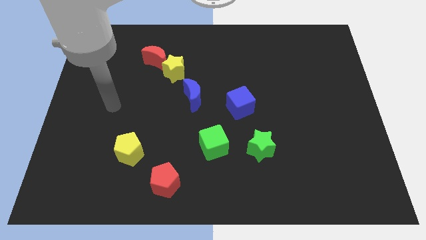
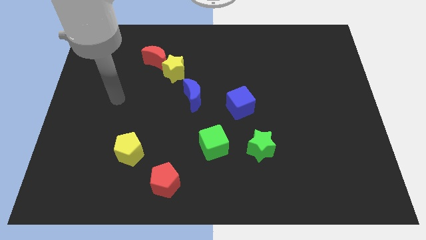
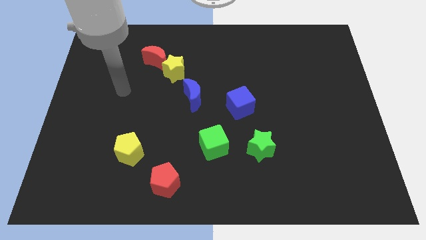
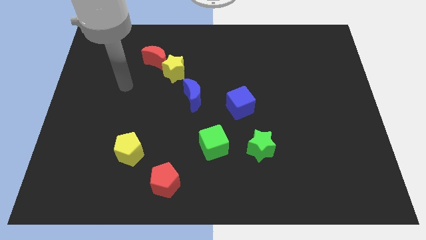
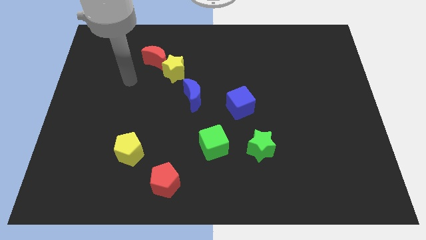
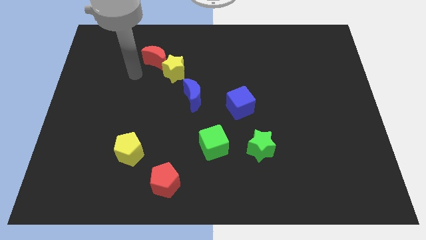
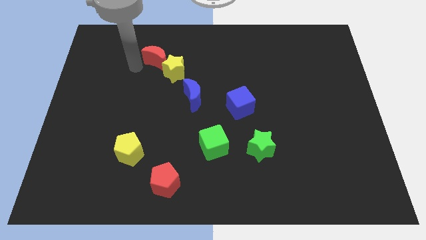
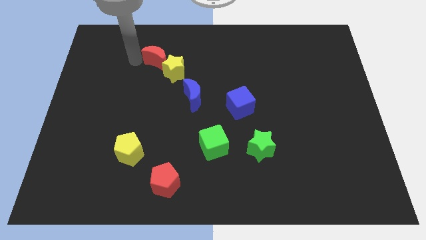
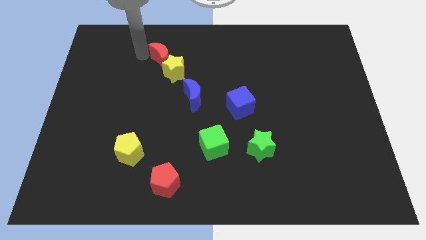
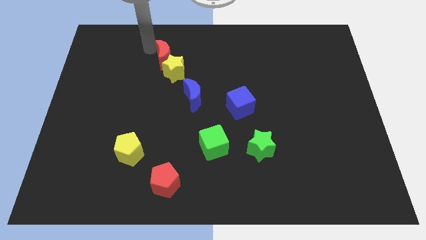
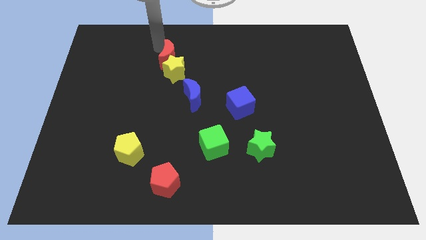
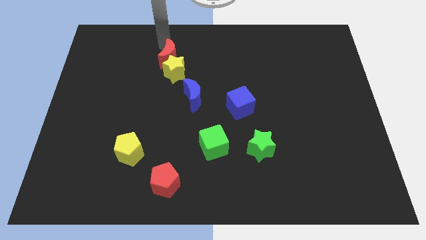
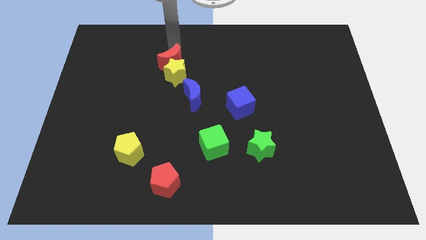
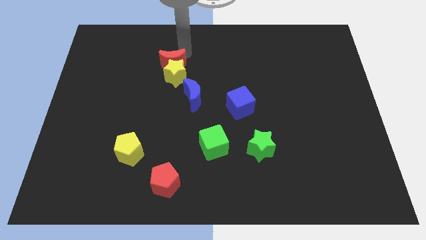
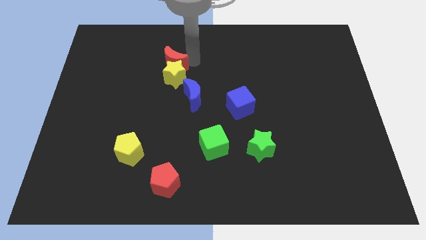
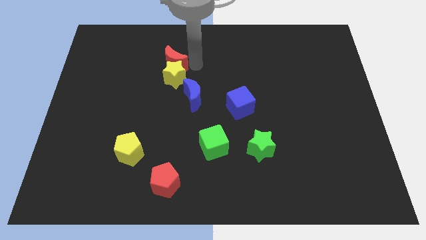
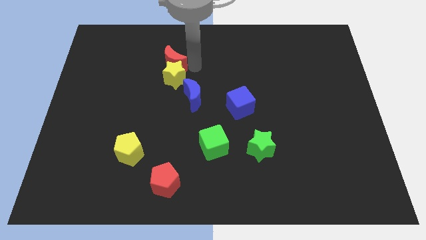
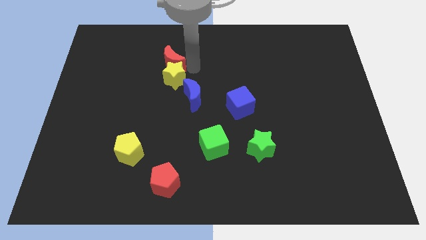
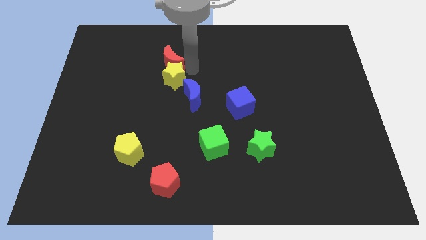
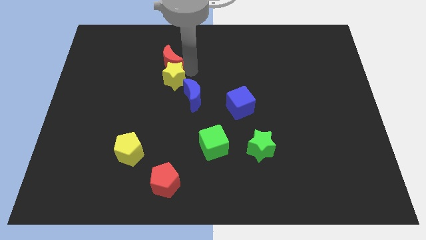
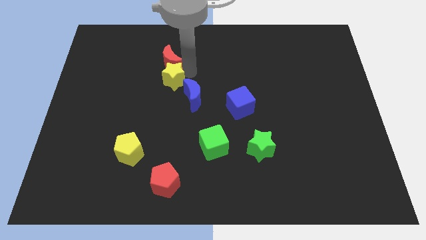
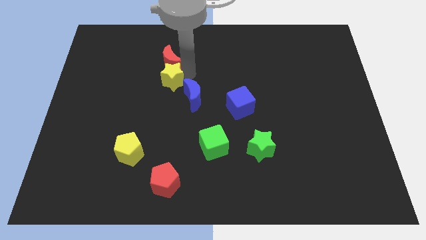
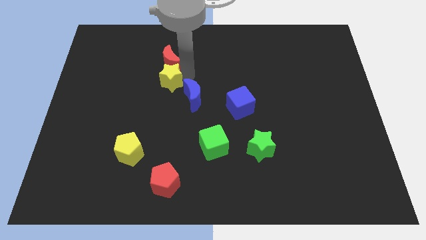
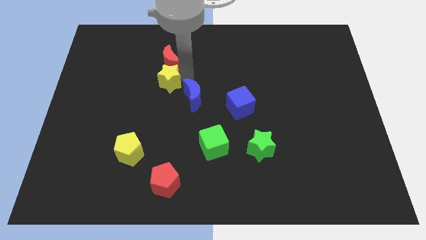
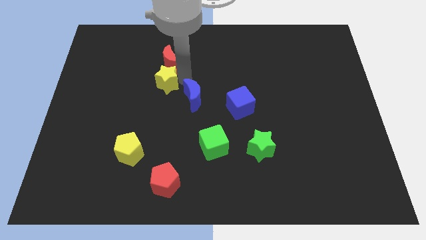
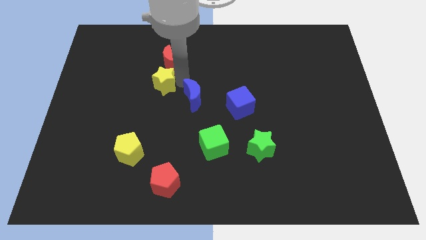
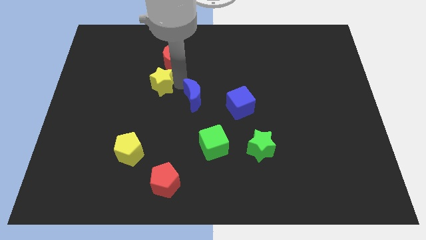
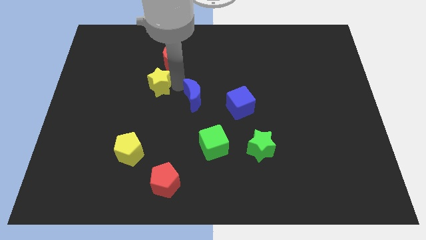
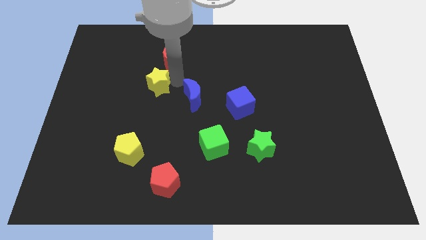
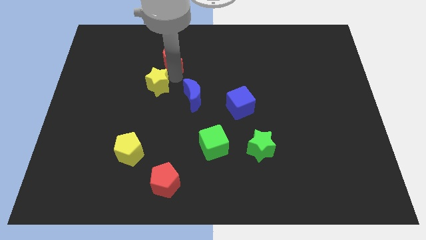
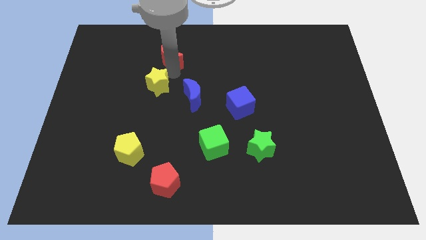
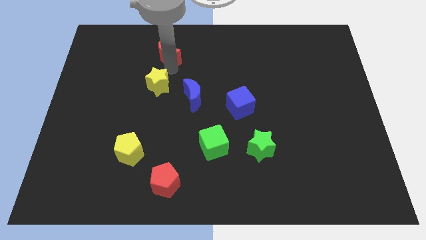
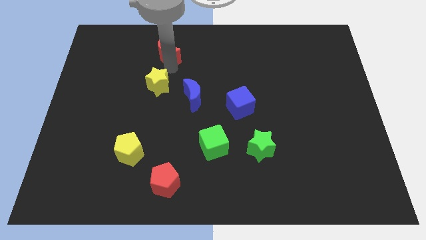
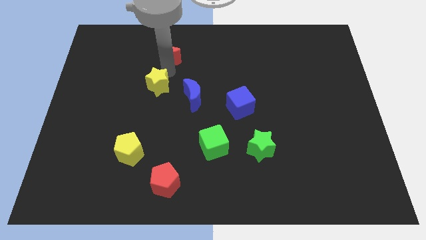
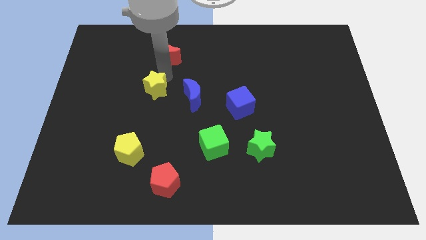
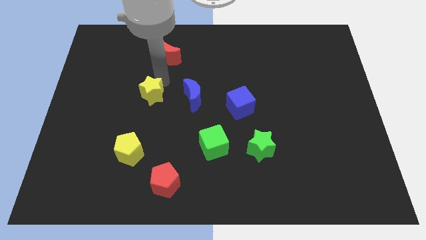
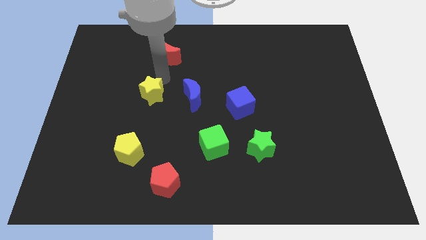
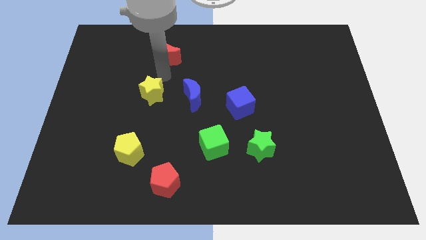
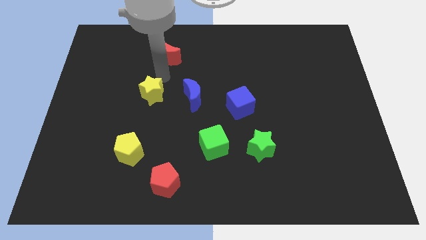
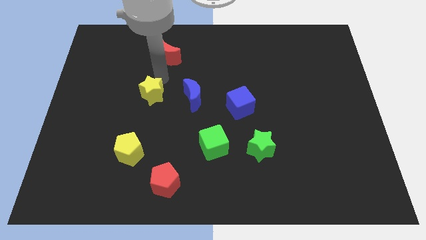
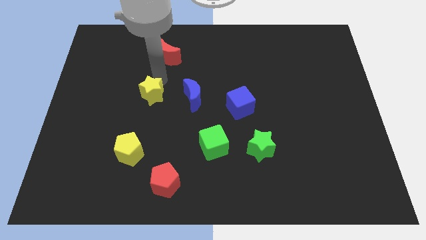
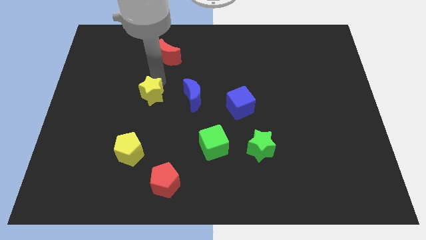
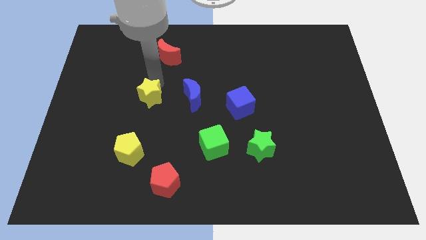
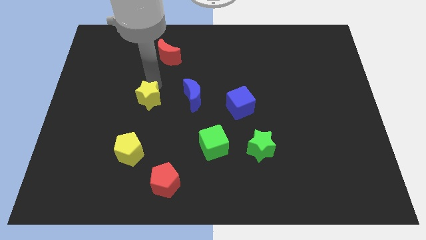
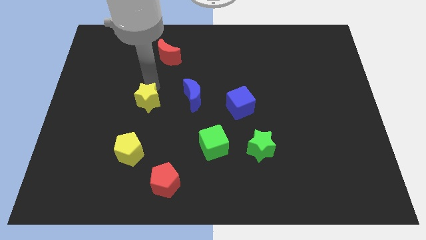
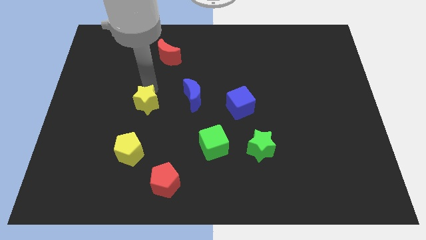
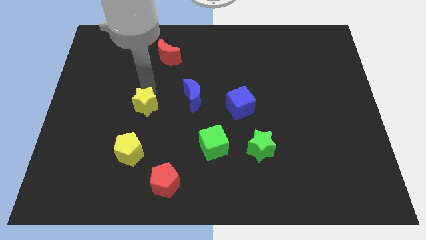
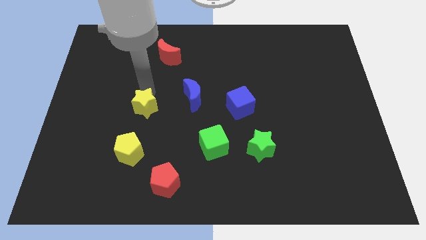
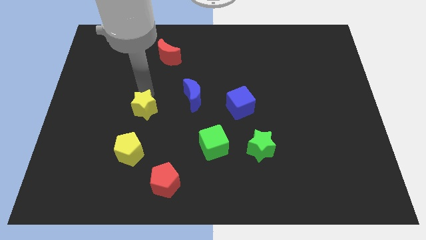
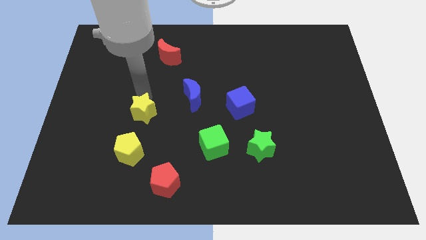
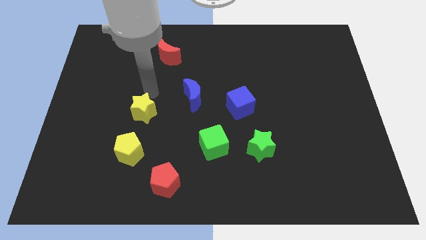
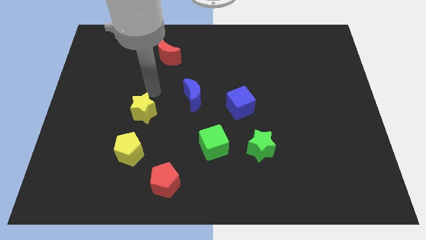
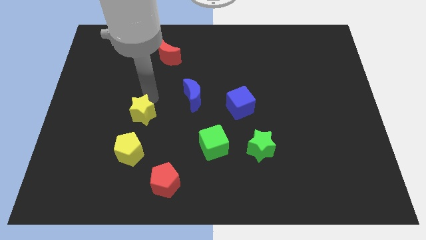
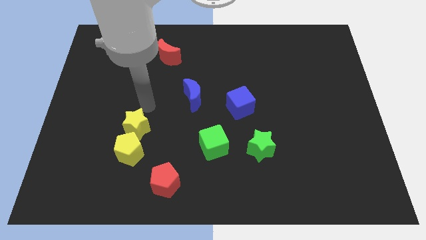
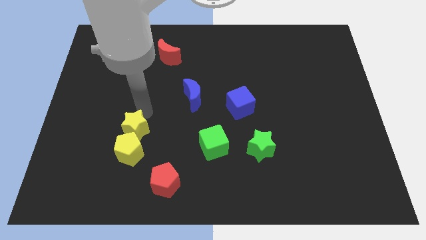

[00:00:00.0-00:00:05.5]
move the yellow star next to the yellow pentagon

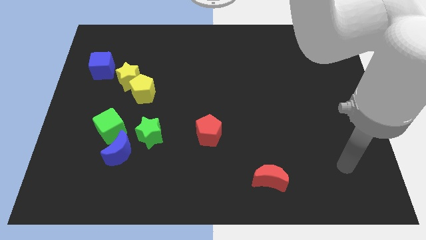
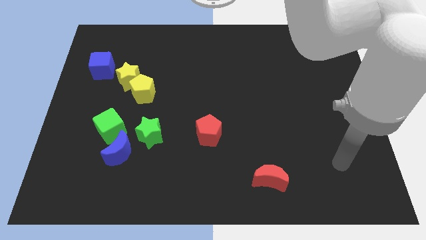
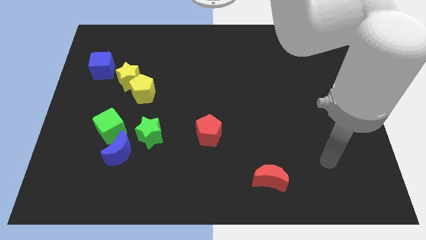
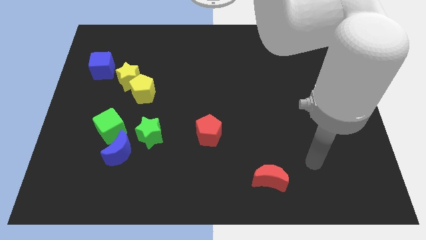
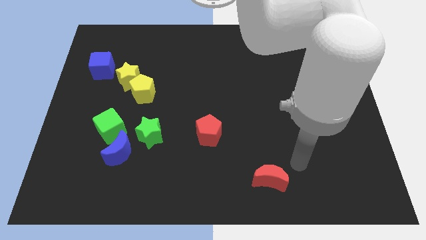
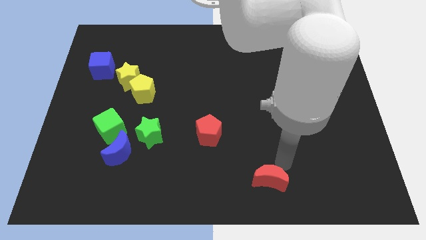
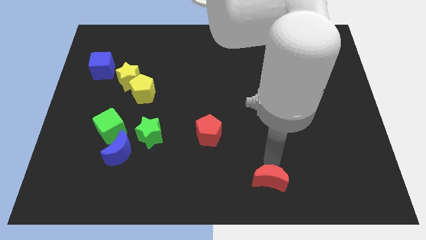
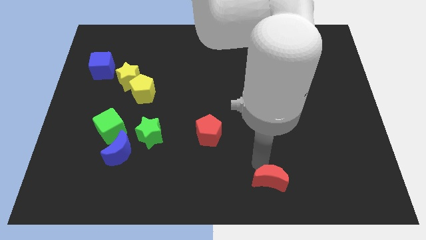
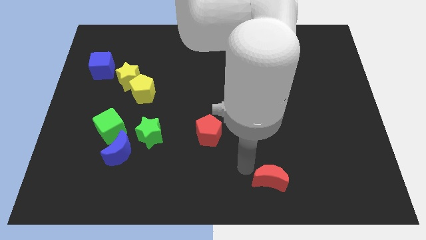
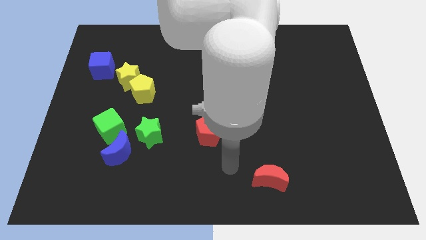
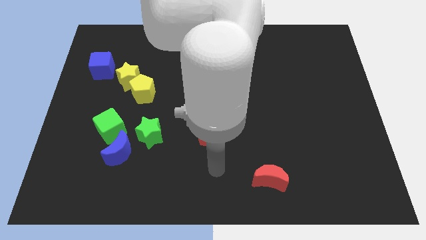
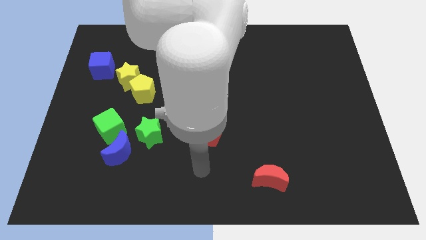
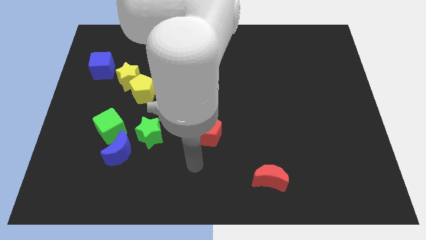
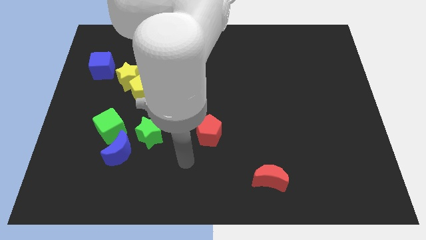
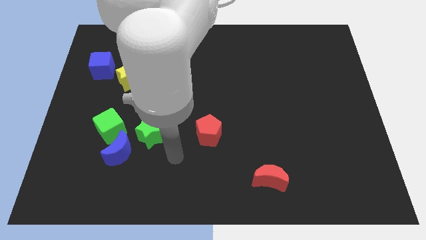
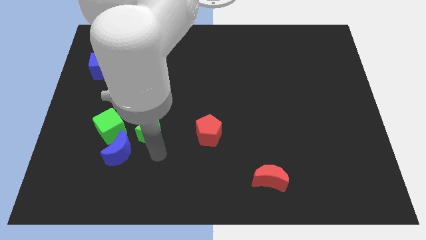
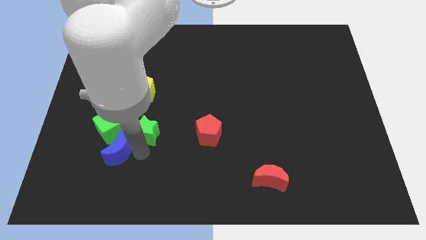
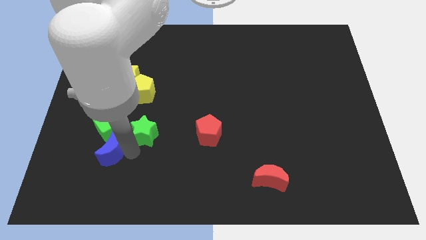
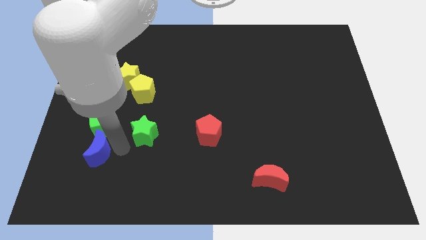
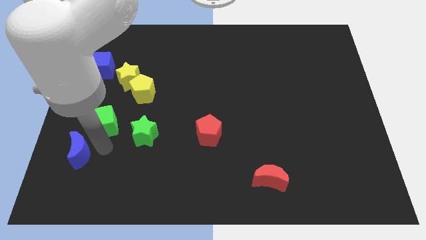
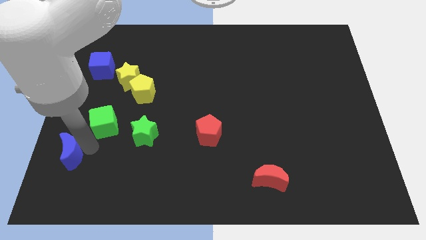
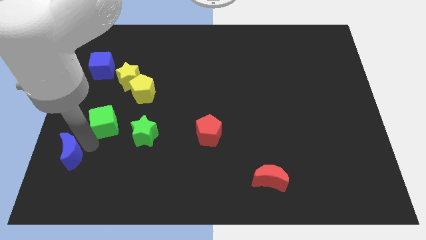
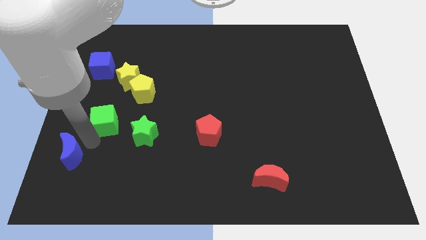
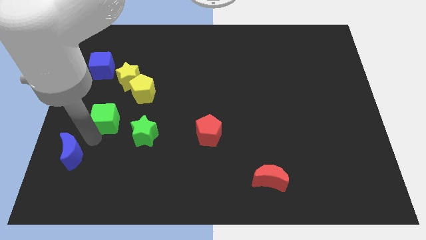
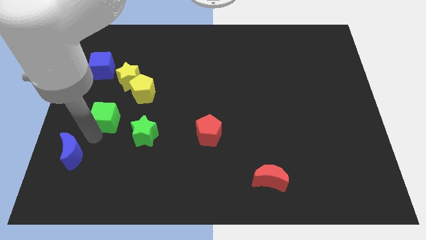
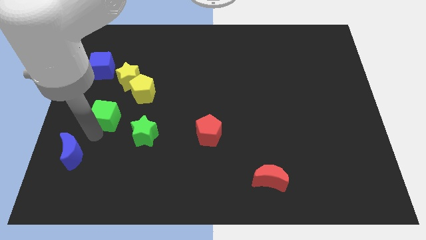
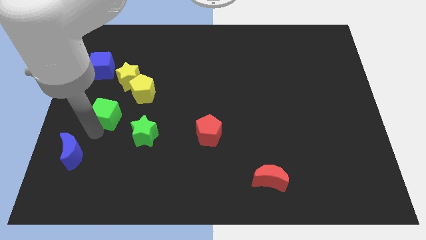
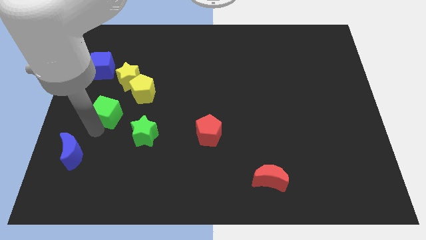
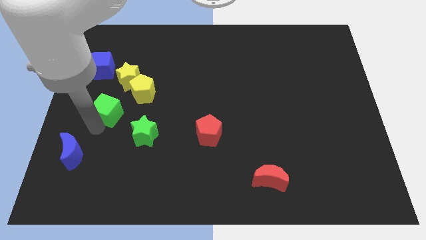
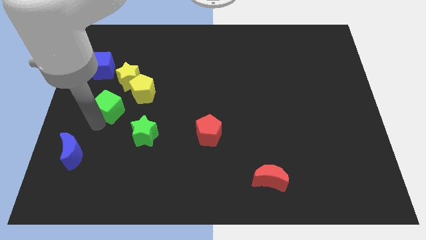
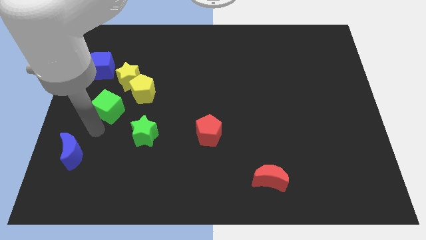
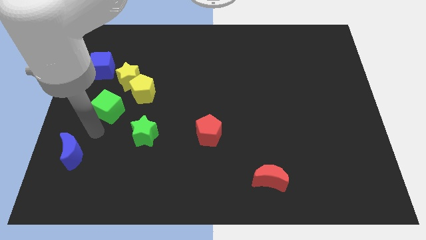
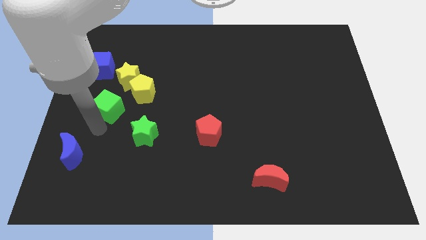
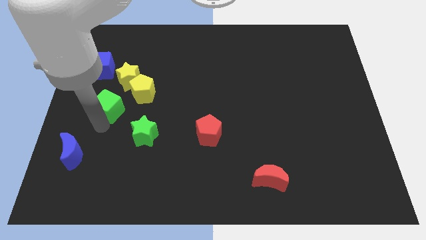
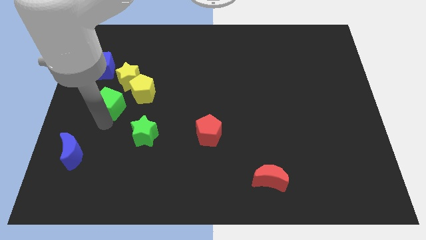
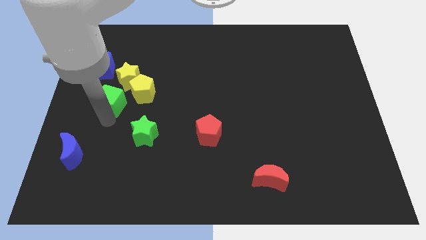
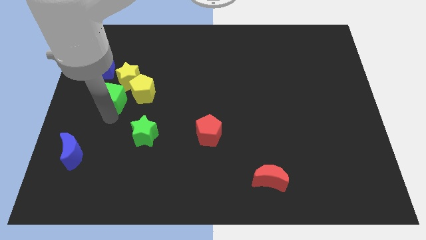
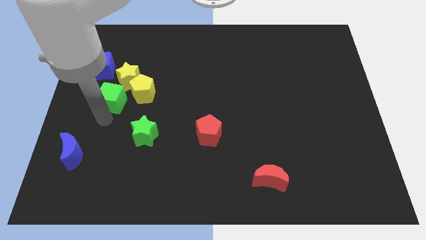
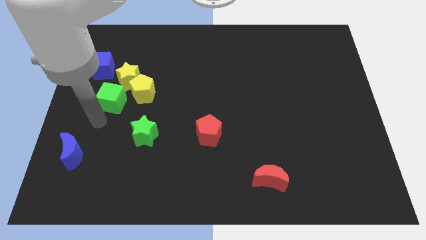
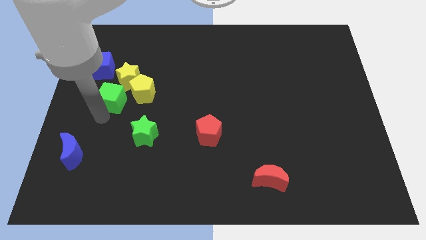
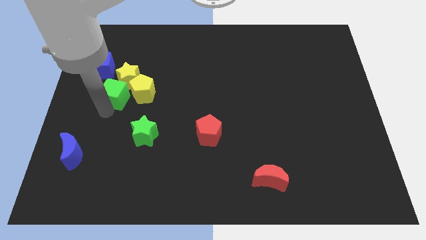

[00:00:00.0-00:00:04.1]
move the green cube next to the yellow star
